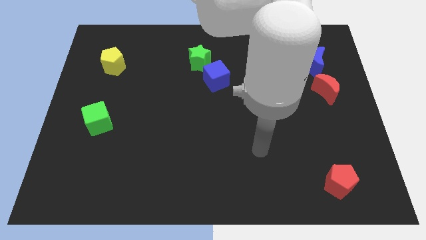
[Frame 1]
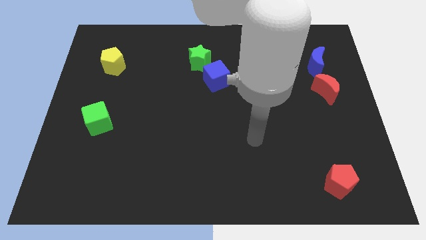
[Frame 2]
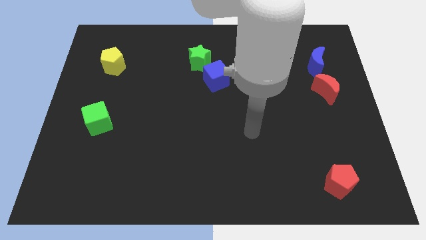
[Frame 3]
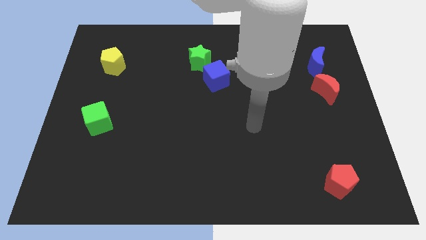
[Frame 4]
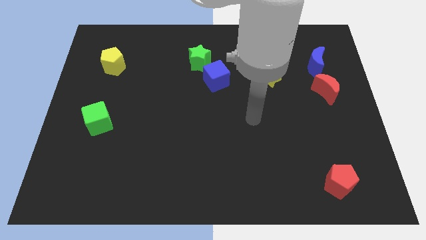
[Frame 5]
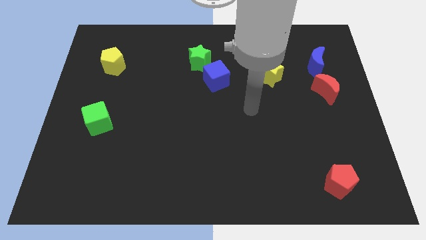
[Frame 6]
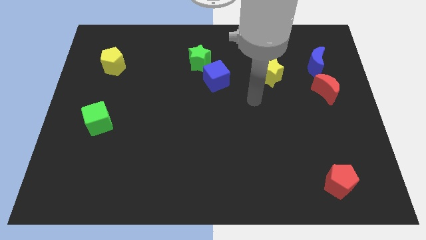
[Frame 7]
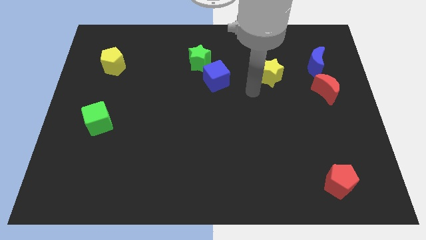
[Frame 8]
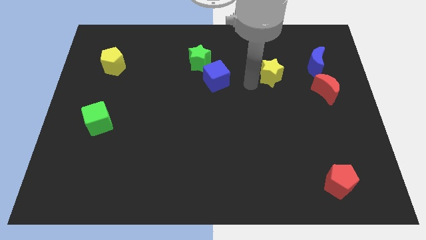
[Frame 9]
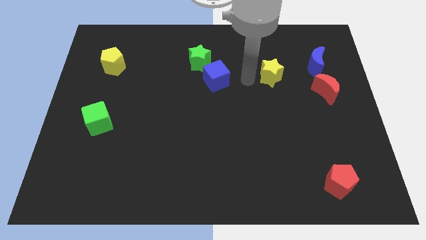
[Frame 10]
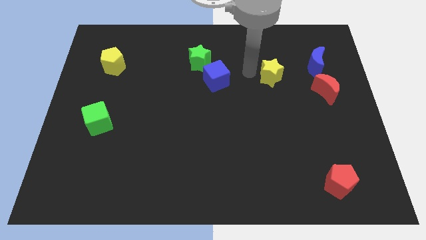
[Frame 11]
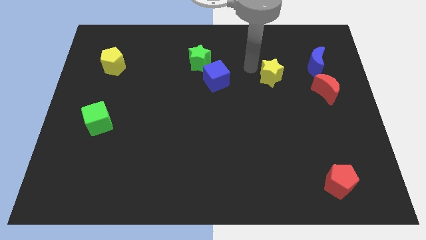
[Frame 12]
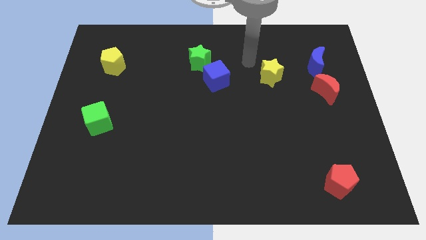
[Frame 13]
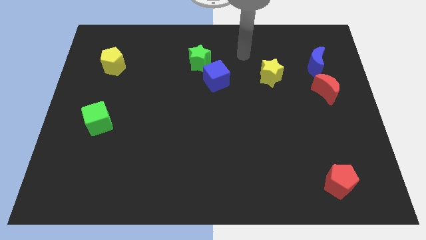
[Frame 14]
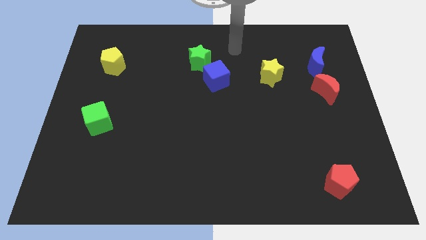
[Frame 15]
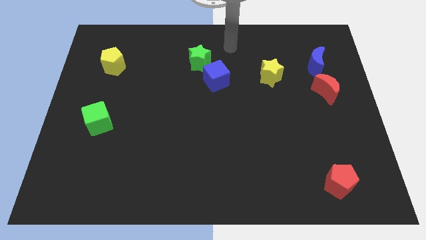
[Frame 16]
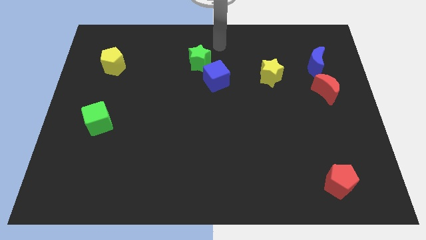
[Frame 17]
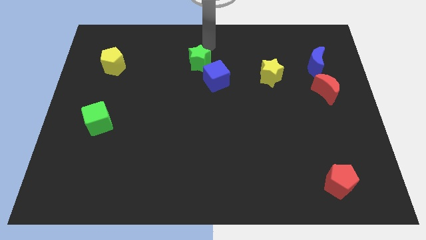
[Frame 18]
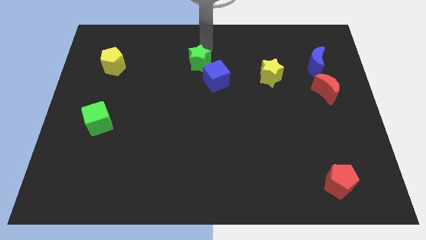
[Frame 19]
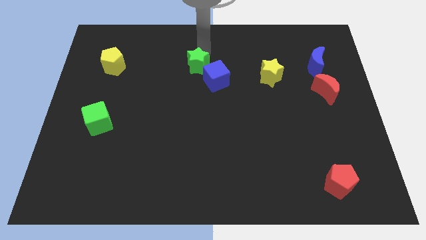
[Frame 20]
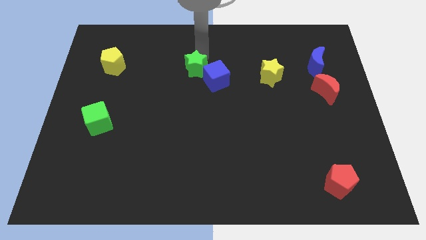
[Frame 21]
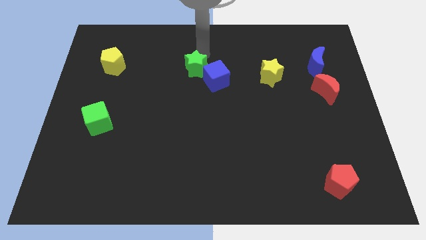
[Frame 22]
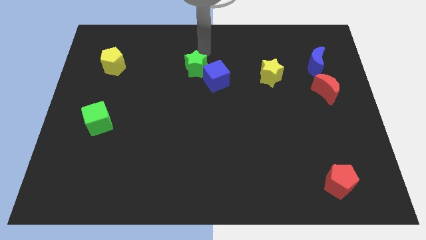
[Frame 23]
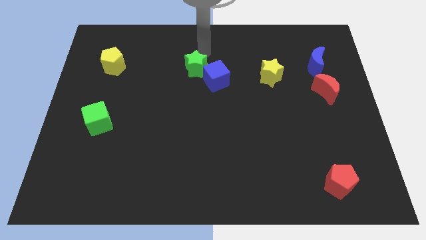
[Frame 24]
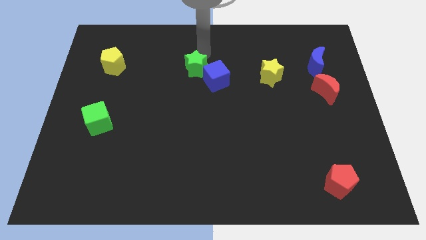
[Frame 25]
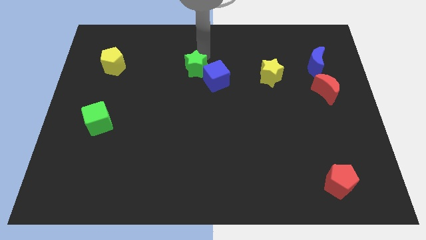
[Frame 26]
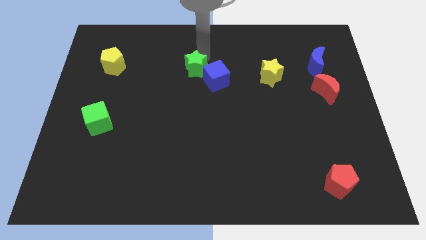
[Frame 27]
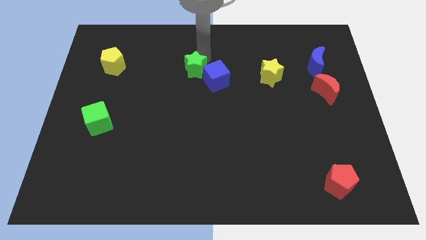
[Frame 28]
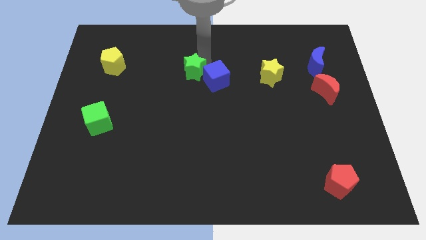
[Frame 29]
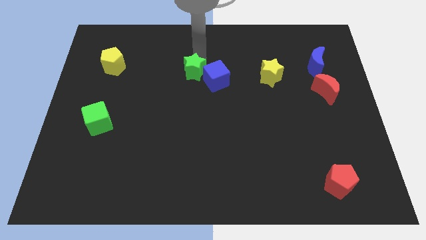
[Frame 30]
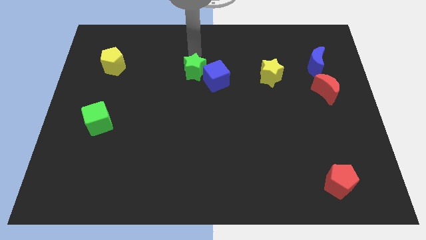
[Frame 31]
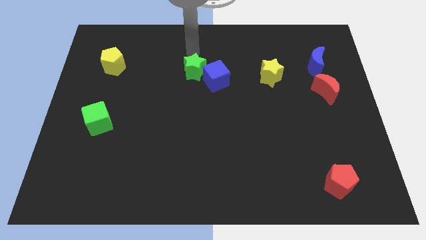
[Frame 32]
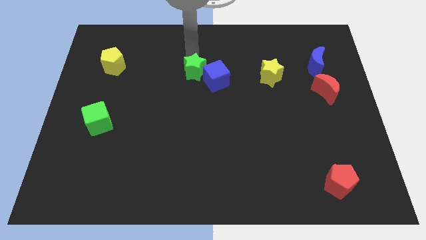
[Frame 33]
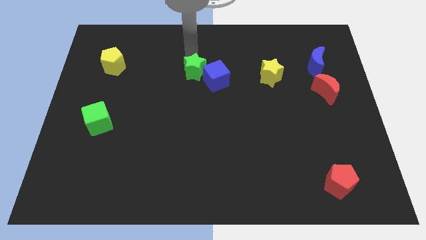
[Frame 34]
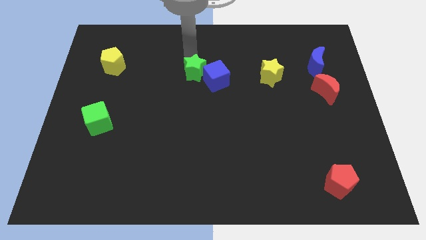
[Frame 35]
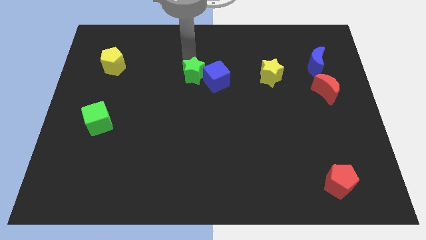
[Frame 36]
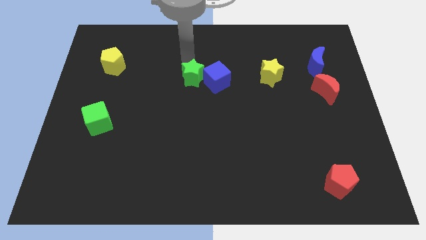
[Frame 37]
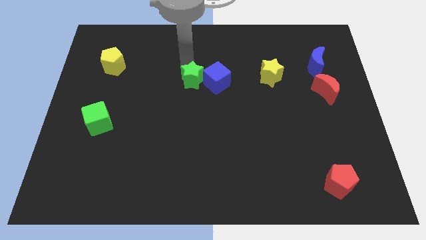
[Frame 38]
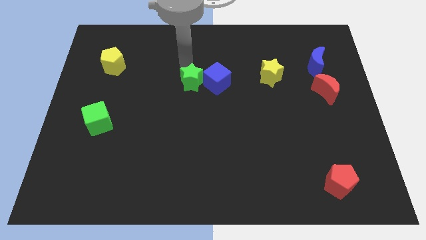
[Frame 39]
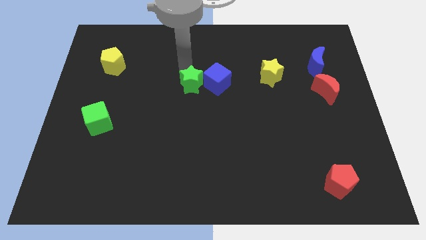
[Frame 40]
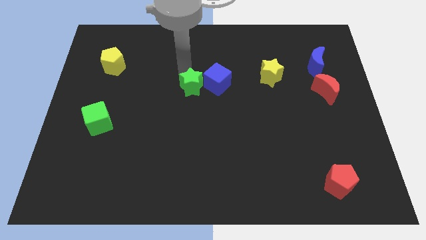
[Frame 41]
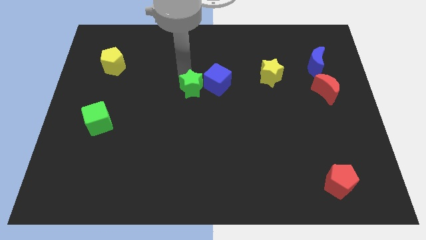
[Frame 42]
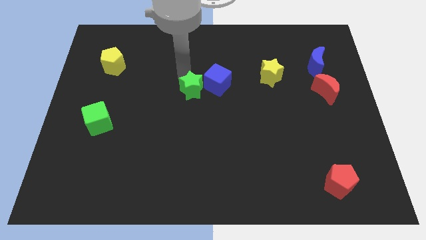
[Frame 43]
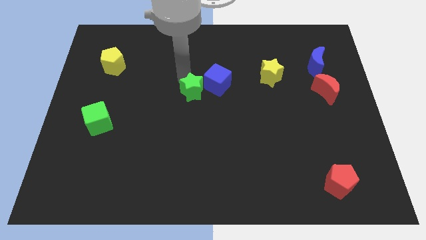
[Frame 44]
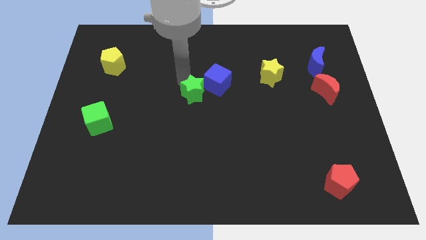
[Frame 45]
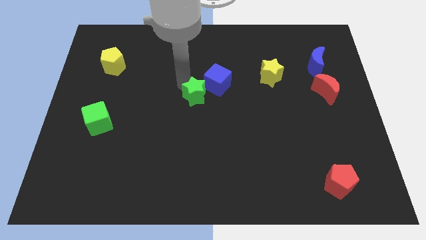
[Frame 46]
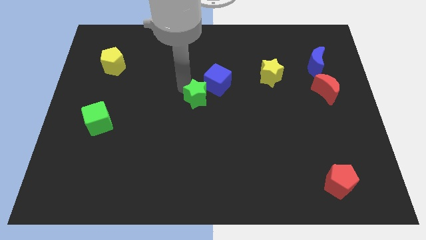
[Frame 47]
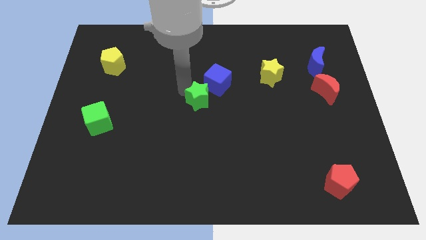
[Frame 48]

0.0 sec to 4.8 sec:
move the green star below the blue cube

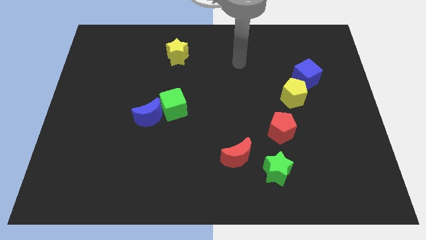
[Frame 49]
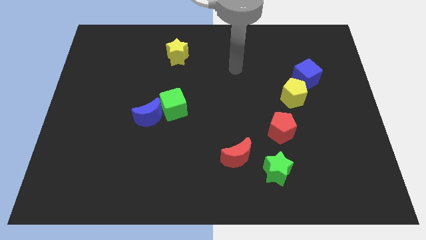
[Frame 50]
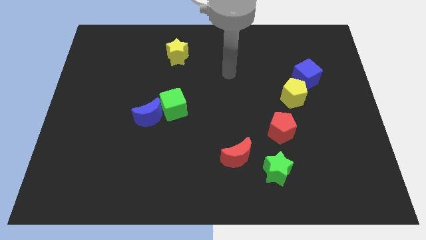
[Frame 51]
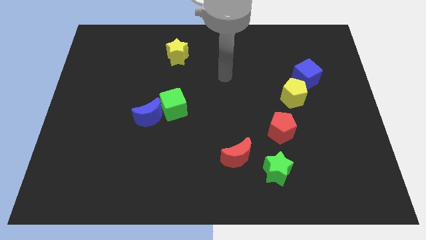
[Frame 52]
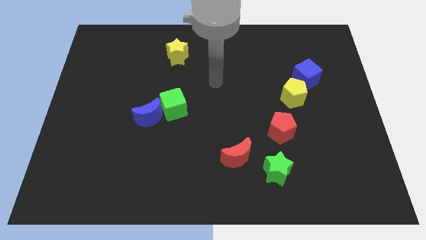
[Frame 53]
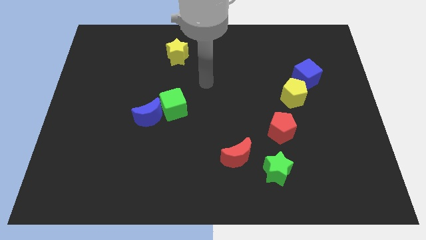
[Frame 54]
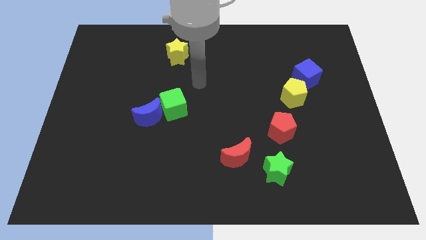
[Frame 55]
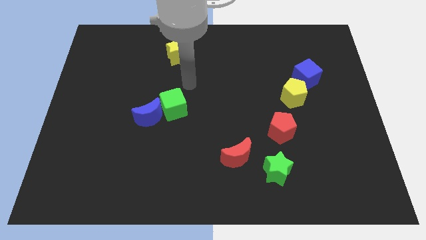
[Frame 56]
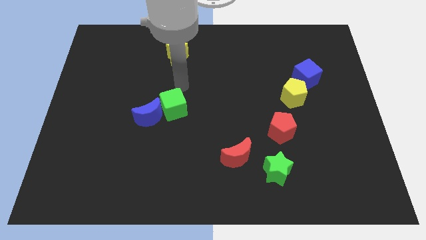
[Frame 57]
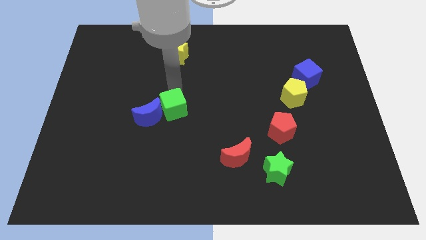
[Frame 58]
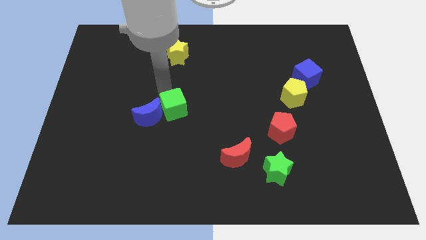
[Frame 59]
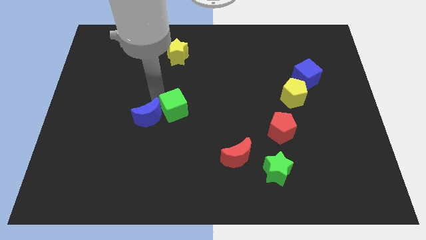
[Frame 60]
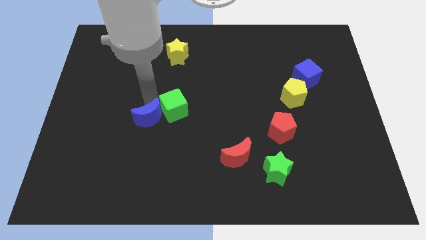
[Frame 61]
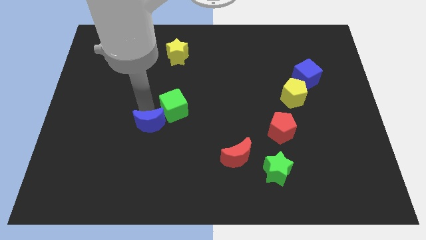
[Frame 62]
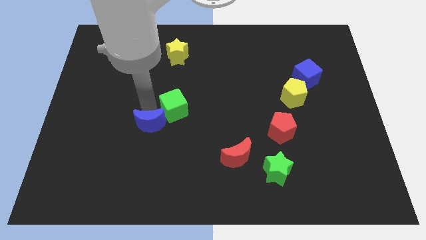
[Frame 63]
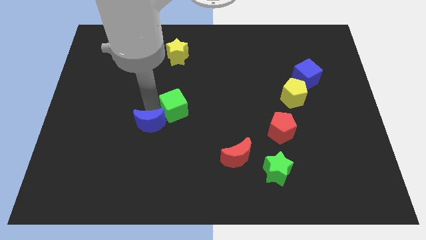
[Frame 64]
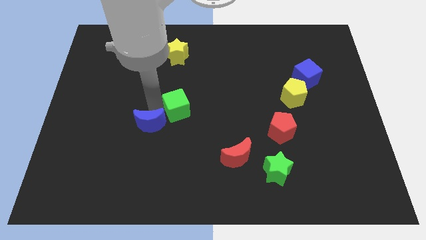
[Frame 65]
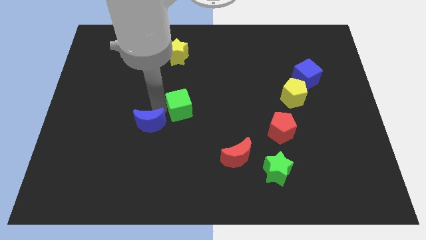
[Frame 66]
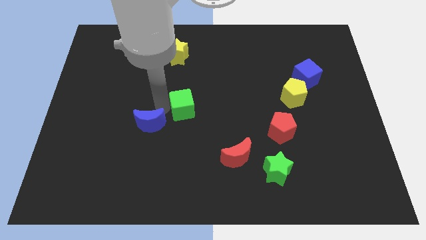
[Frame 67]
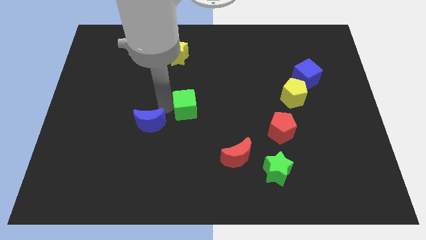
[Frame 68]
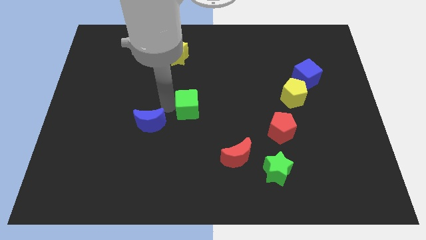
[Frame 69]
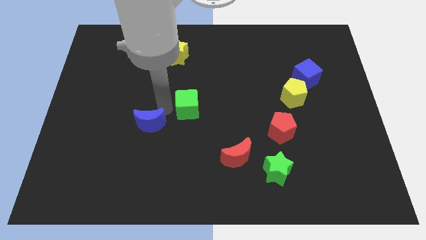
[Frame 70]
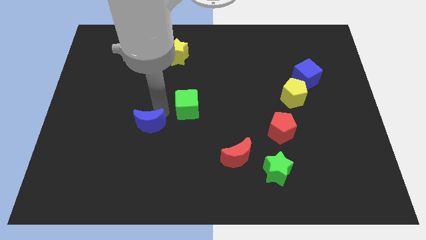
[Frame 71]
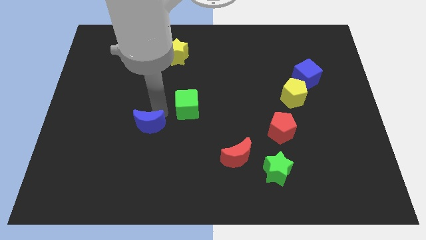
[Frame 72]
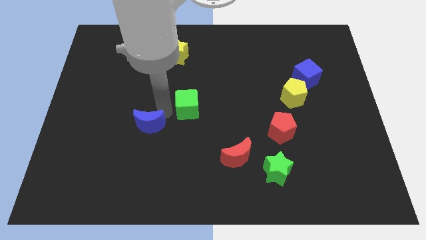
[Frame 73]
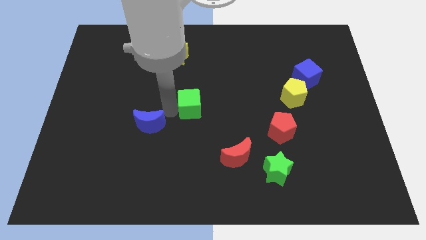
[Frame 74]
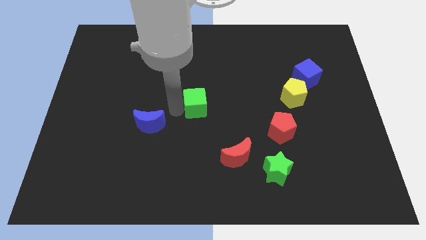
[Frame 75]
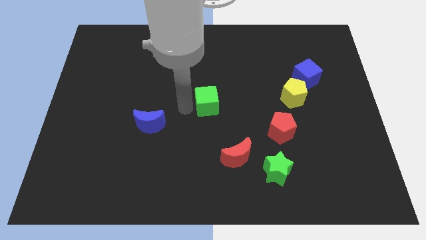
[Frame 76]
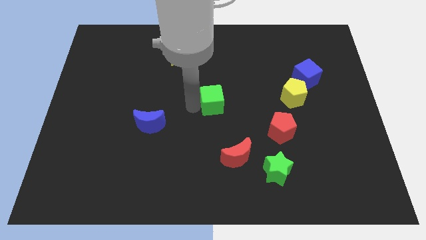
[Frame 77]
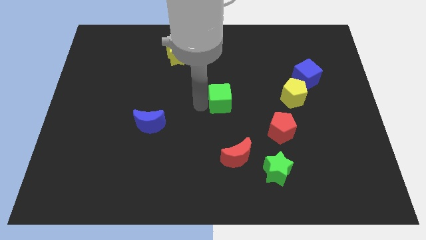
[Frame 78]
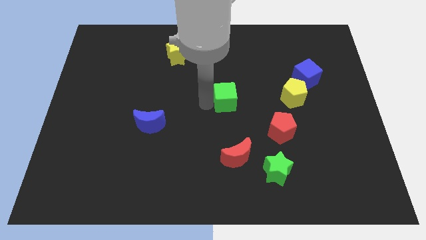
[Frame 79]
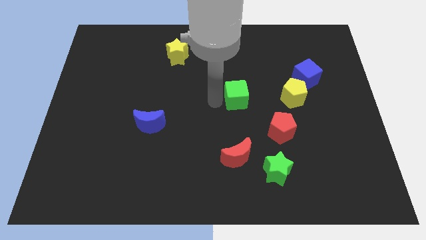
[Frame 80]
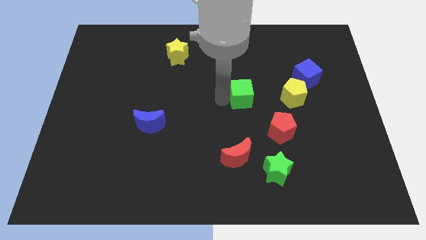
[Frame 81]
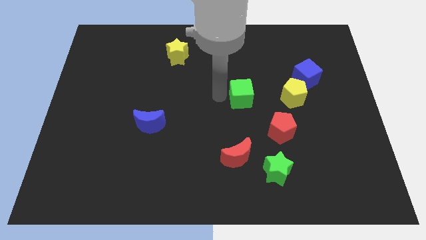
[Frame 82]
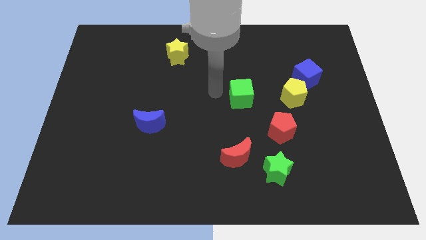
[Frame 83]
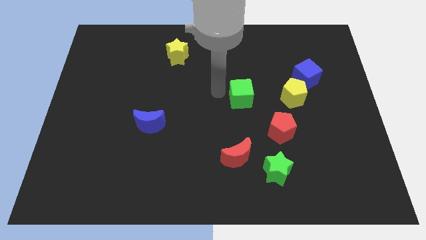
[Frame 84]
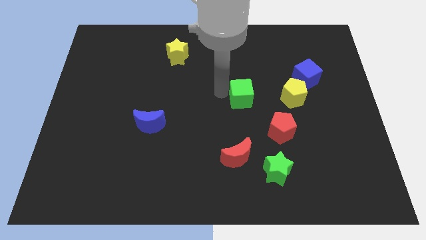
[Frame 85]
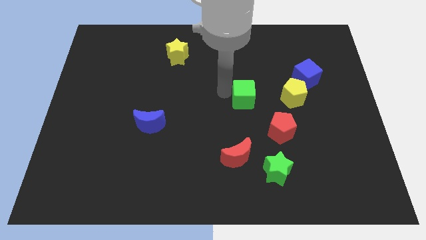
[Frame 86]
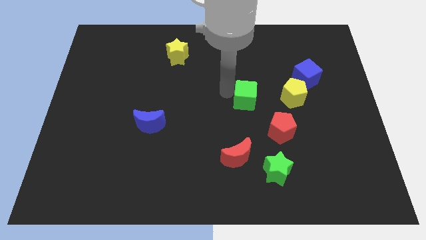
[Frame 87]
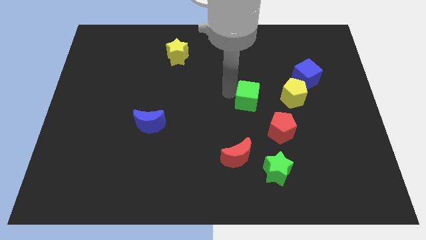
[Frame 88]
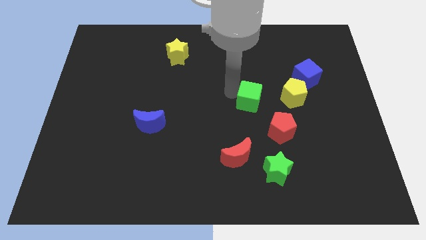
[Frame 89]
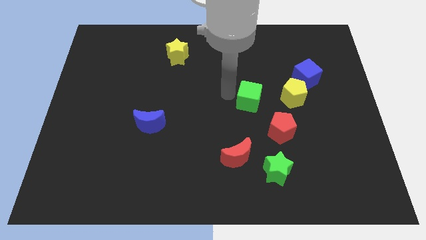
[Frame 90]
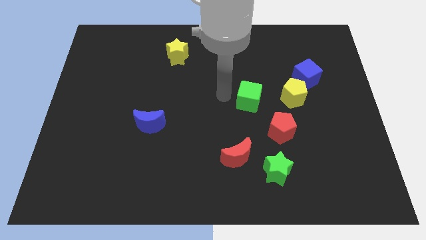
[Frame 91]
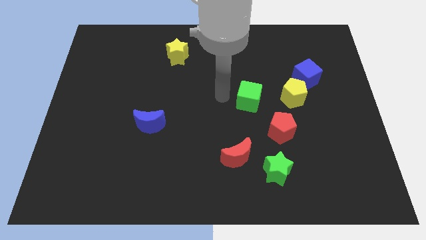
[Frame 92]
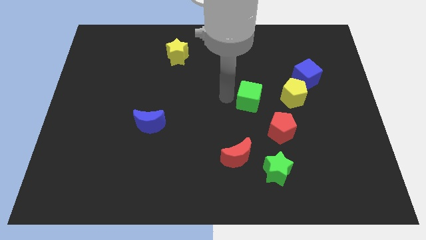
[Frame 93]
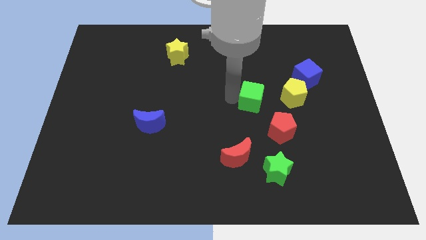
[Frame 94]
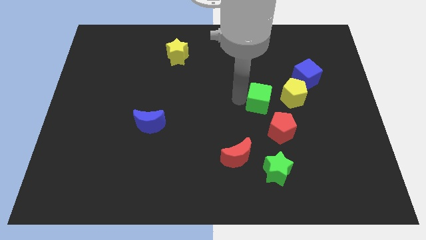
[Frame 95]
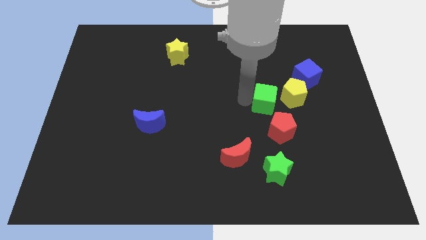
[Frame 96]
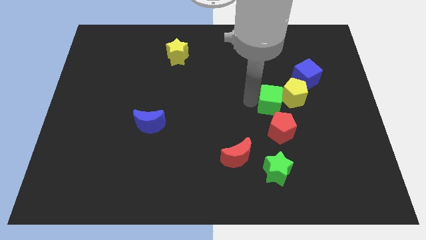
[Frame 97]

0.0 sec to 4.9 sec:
slide the green cube diagonally down and to the left of the blue cube
